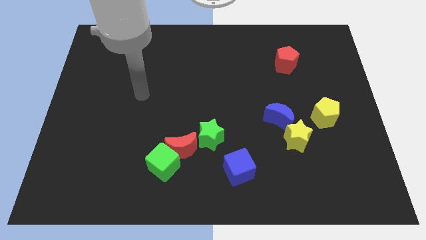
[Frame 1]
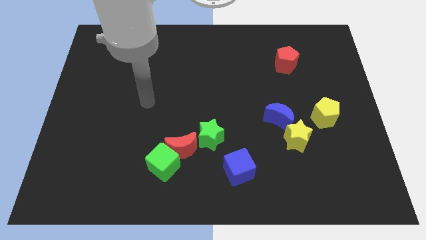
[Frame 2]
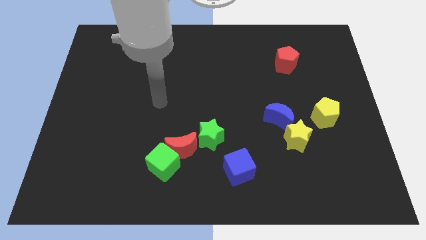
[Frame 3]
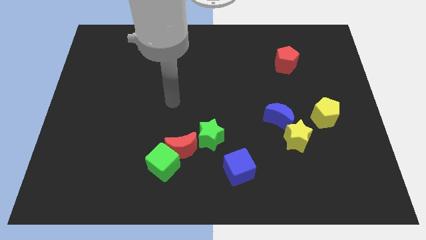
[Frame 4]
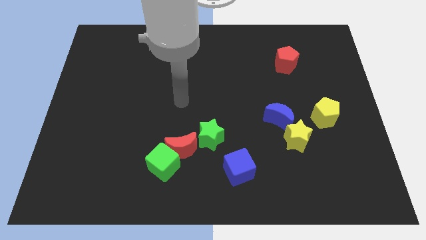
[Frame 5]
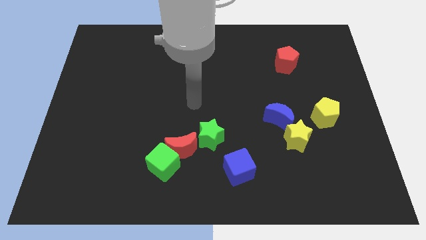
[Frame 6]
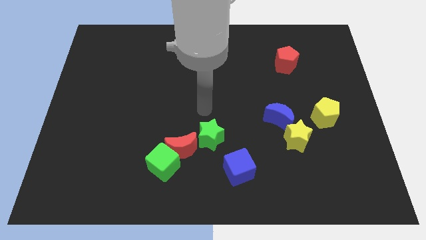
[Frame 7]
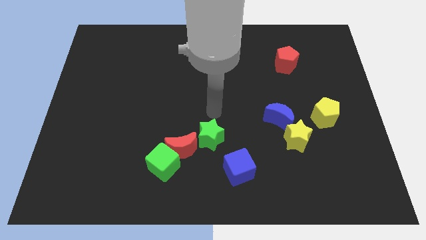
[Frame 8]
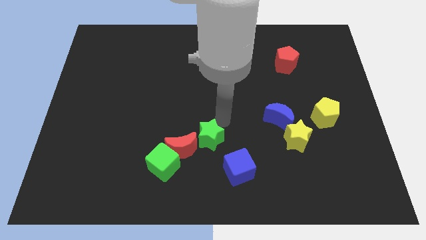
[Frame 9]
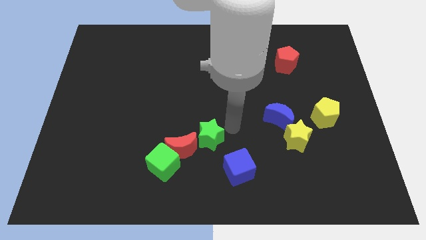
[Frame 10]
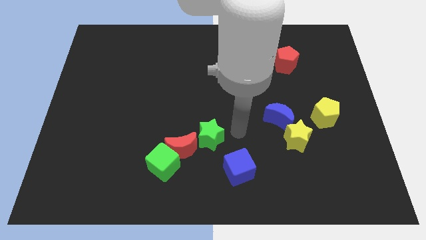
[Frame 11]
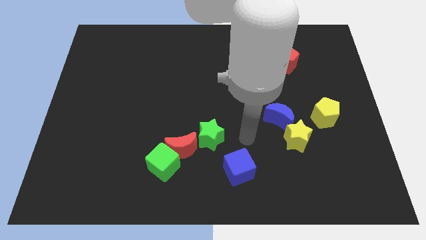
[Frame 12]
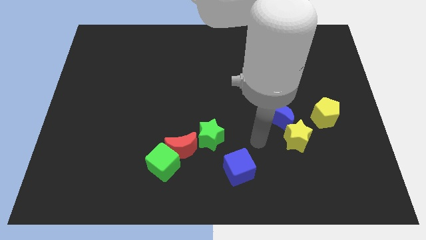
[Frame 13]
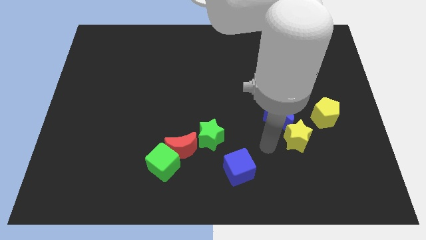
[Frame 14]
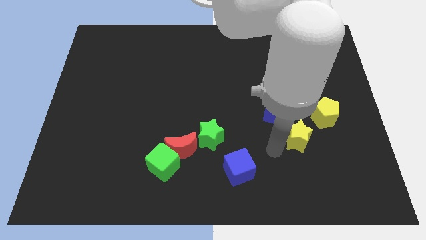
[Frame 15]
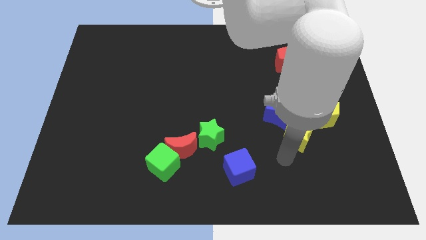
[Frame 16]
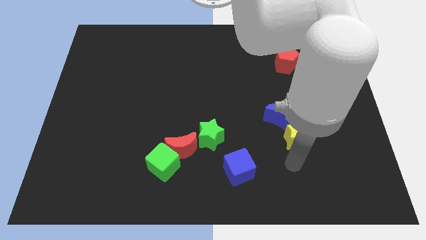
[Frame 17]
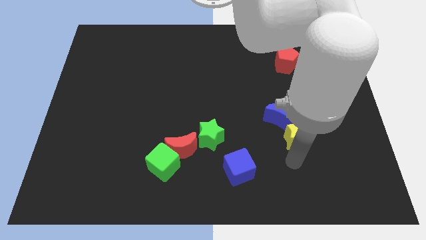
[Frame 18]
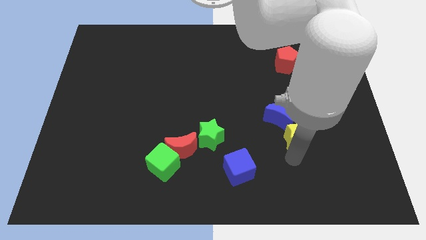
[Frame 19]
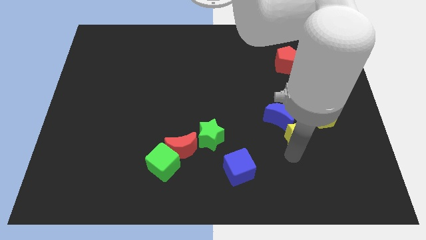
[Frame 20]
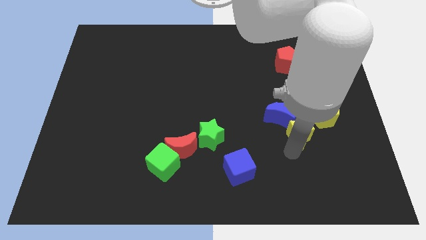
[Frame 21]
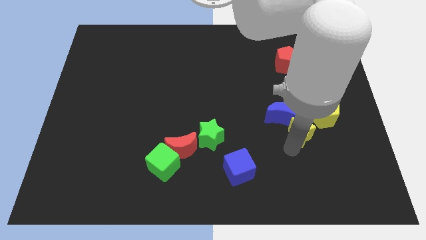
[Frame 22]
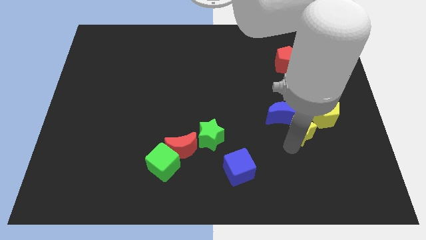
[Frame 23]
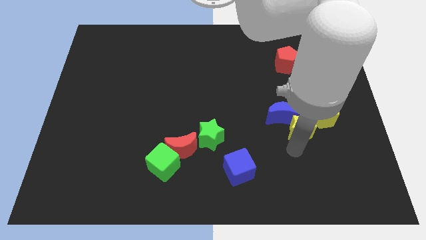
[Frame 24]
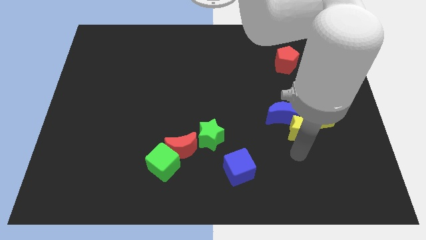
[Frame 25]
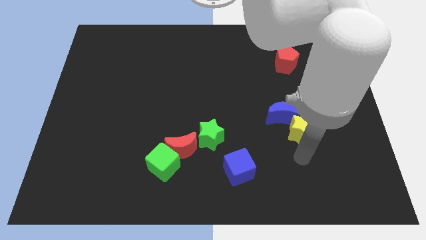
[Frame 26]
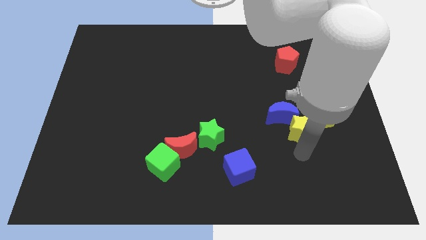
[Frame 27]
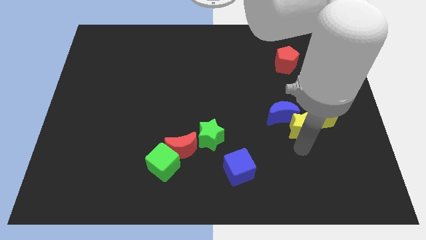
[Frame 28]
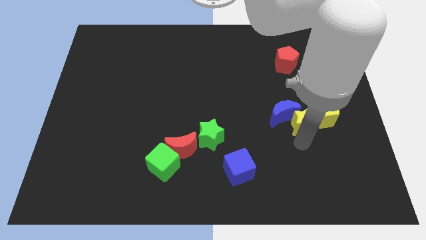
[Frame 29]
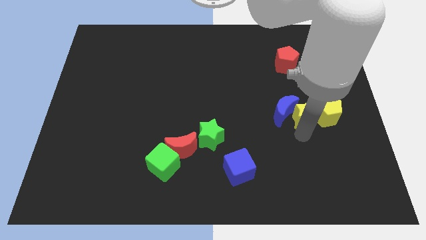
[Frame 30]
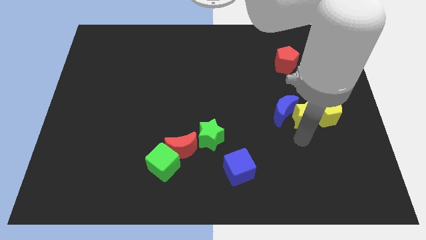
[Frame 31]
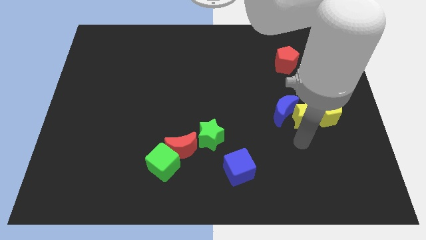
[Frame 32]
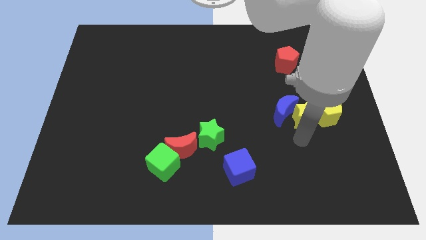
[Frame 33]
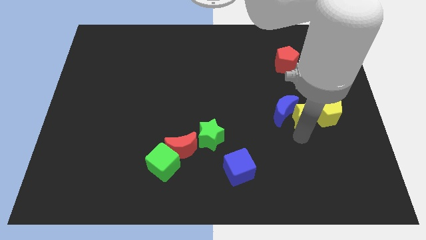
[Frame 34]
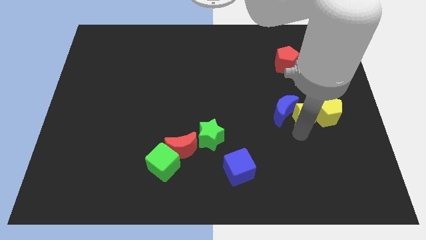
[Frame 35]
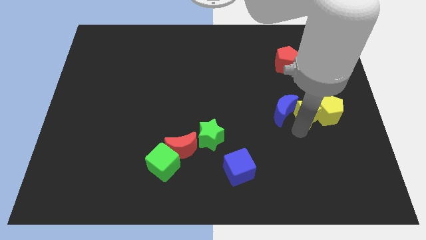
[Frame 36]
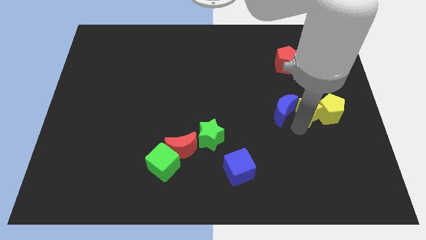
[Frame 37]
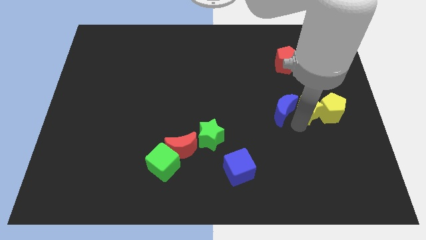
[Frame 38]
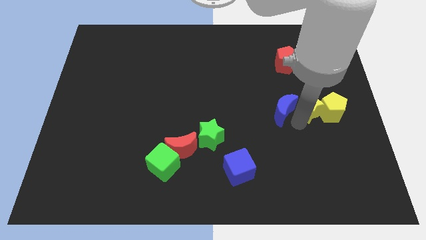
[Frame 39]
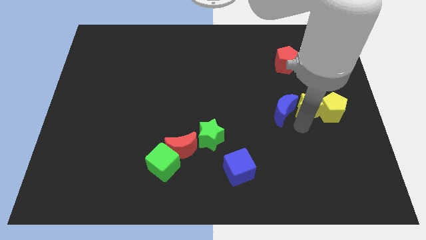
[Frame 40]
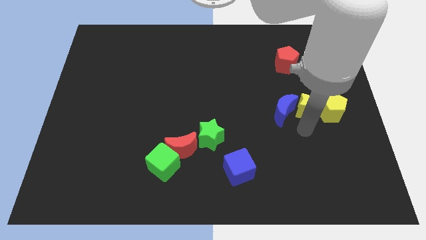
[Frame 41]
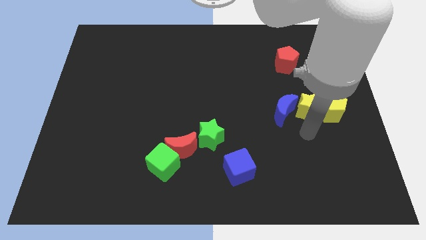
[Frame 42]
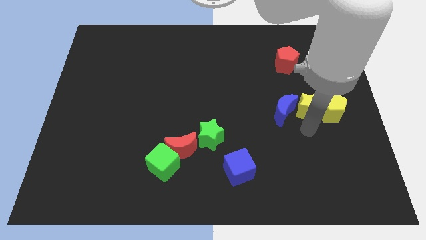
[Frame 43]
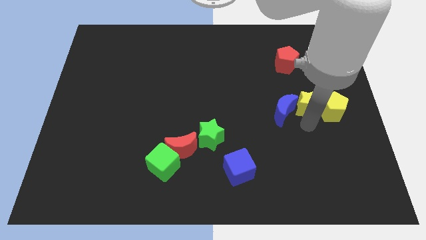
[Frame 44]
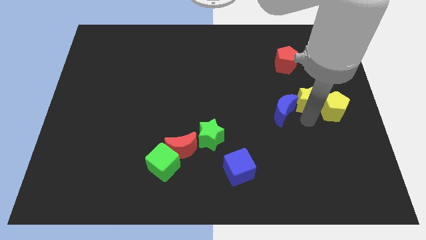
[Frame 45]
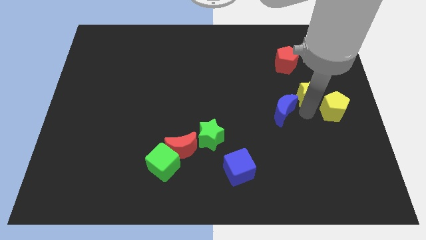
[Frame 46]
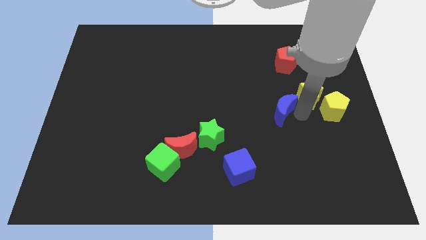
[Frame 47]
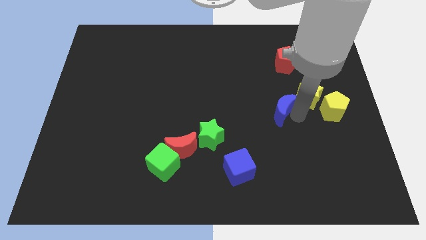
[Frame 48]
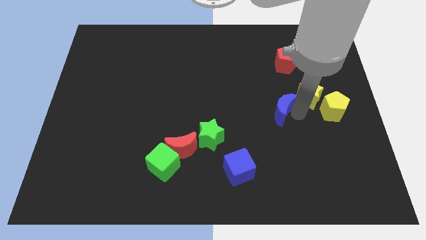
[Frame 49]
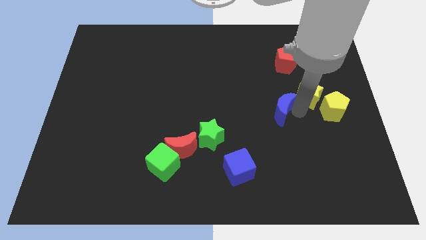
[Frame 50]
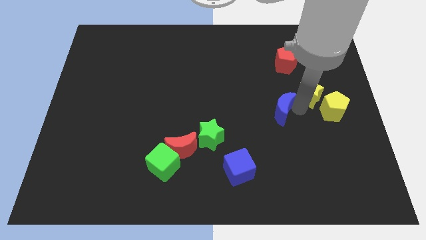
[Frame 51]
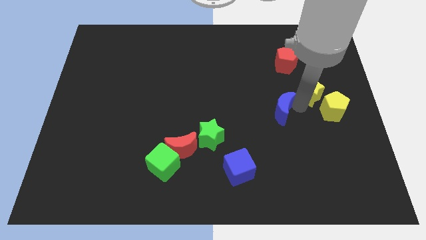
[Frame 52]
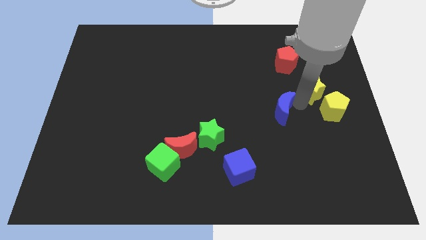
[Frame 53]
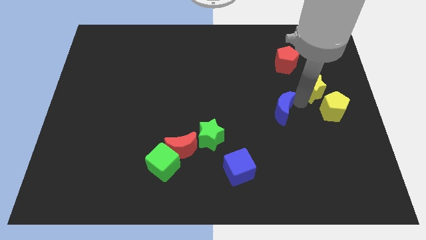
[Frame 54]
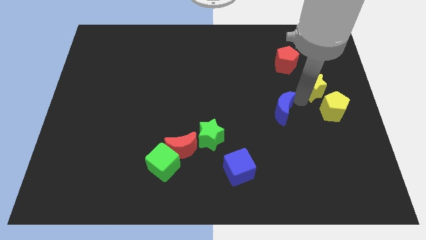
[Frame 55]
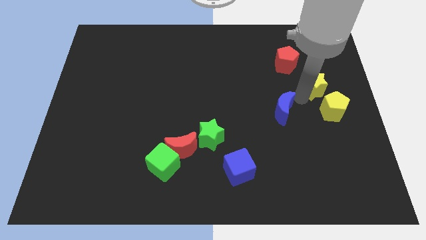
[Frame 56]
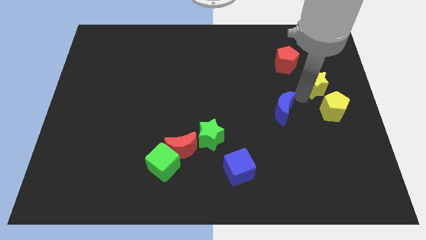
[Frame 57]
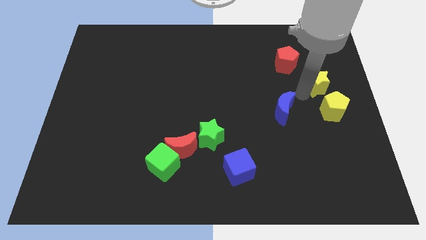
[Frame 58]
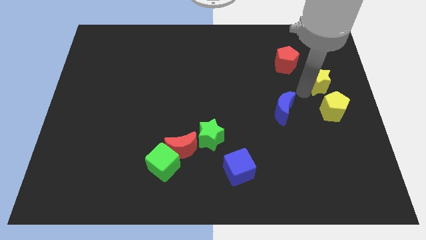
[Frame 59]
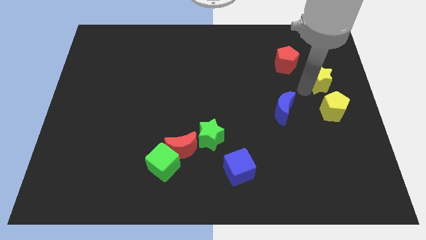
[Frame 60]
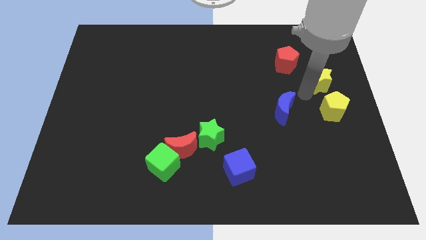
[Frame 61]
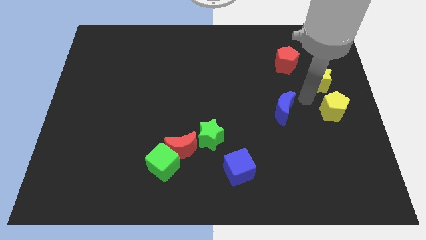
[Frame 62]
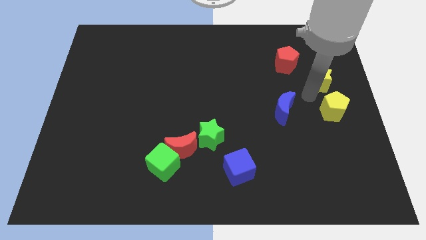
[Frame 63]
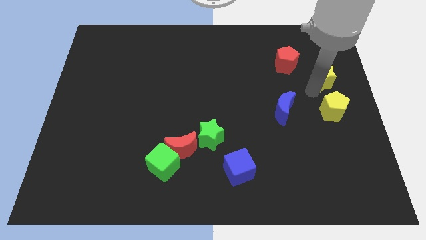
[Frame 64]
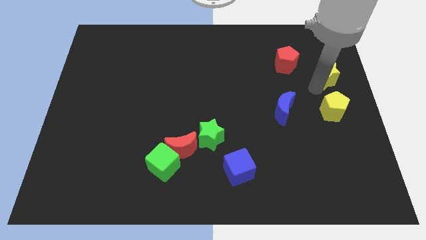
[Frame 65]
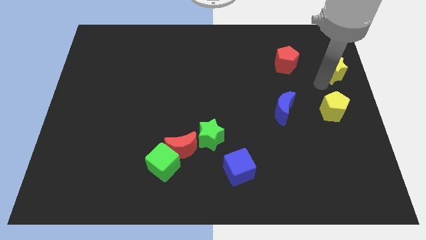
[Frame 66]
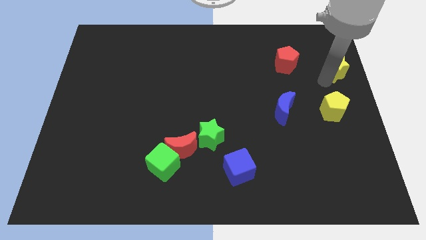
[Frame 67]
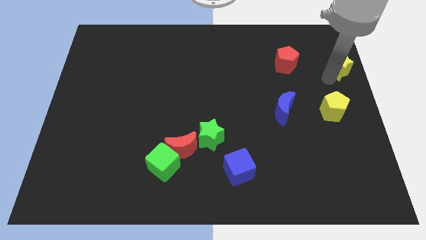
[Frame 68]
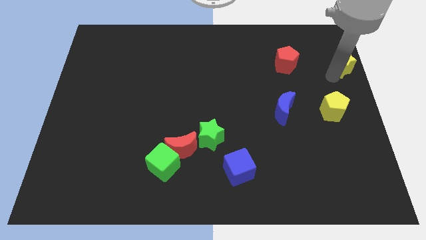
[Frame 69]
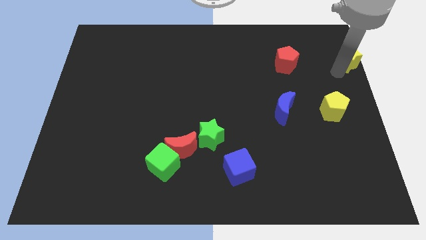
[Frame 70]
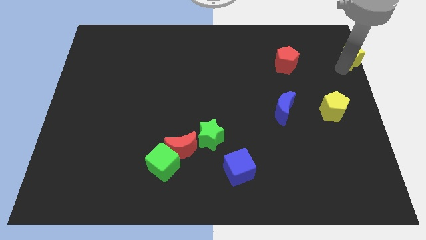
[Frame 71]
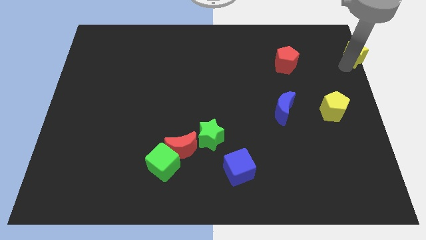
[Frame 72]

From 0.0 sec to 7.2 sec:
put the yellow star to the top right corner

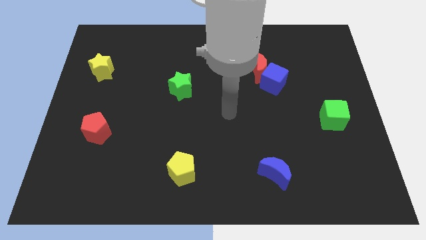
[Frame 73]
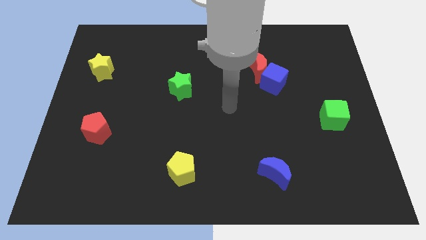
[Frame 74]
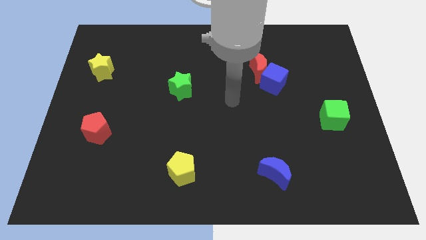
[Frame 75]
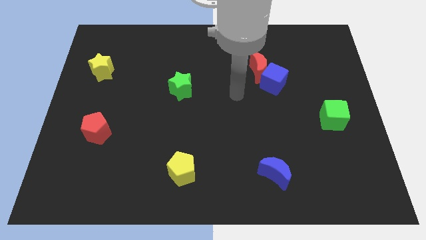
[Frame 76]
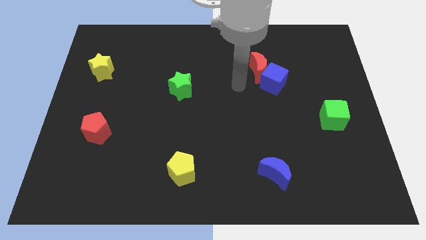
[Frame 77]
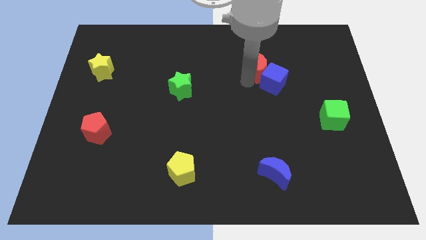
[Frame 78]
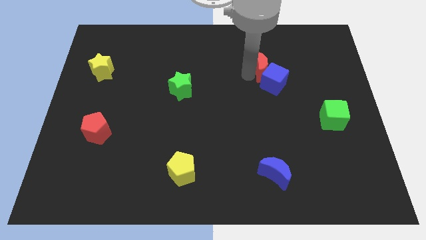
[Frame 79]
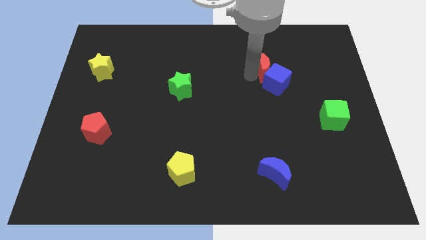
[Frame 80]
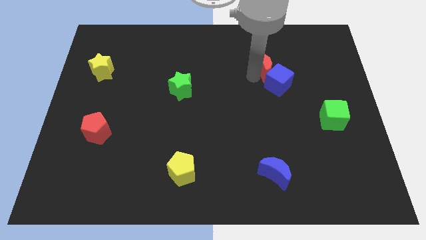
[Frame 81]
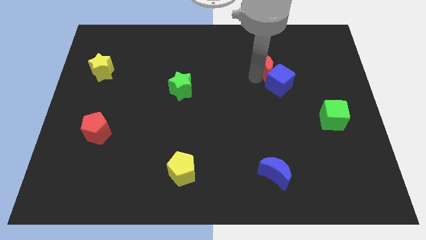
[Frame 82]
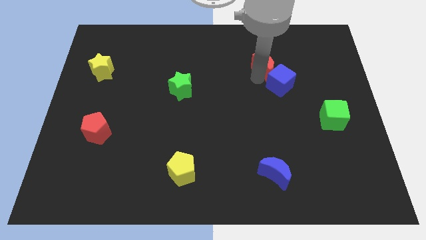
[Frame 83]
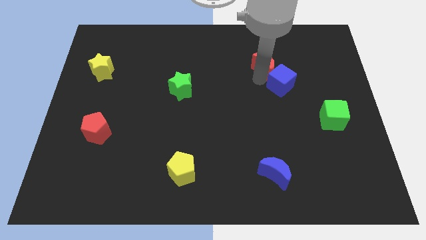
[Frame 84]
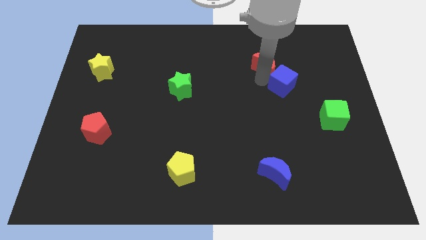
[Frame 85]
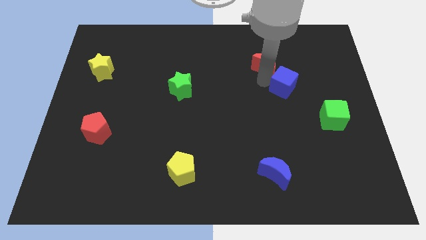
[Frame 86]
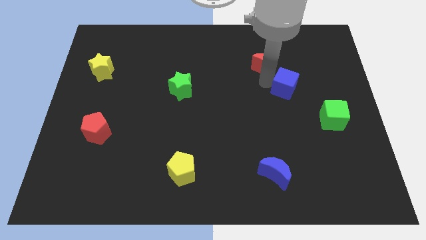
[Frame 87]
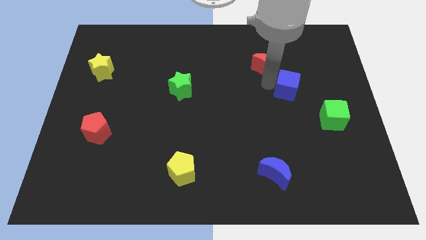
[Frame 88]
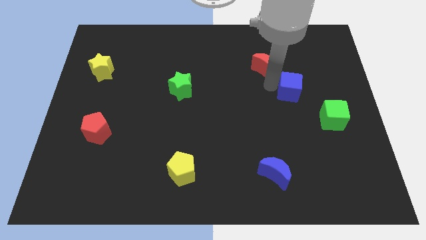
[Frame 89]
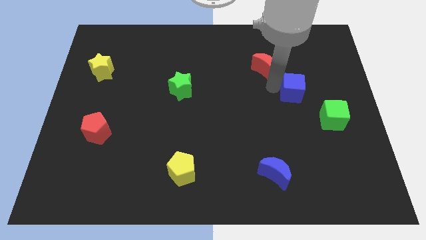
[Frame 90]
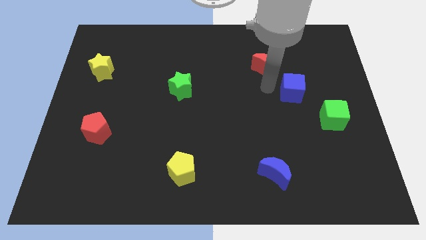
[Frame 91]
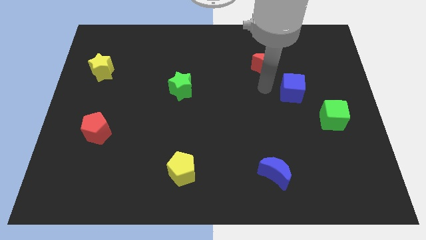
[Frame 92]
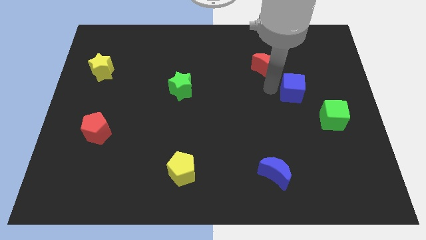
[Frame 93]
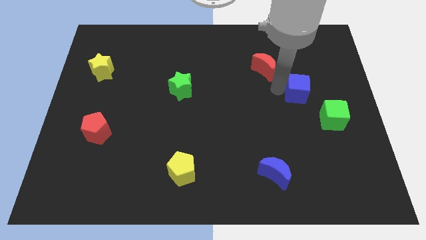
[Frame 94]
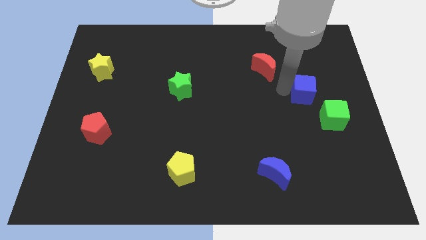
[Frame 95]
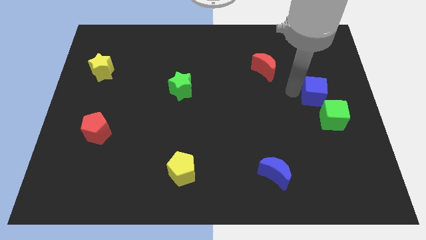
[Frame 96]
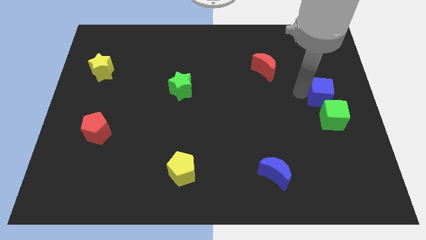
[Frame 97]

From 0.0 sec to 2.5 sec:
move the blue cube to the right side
